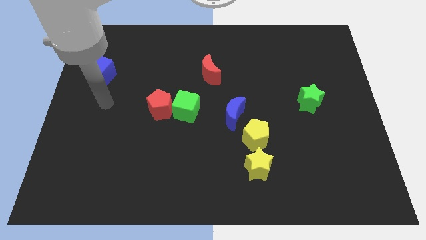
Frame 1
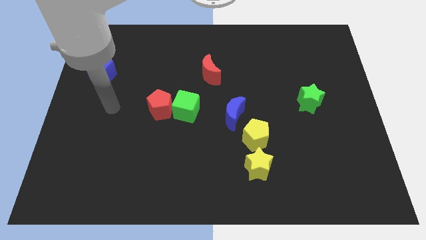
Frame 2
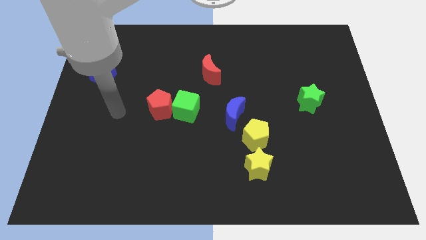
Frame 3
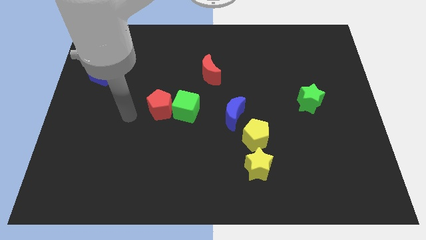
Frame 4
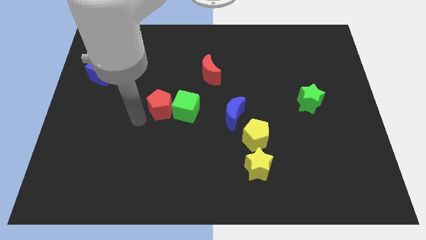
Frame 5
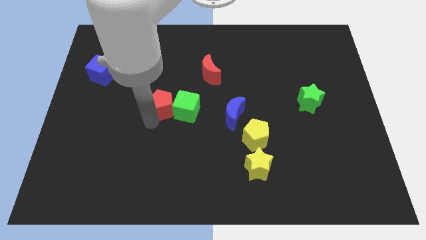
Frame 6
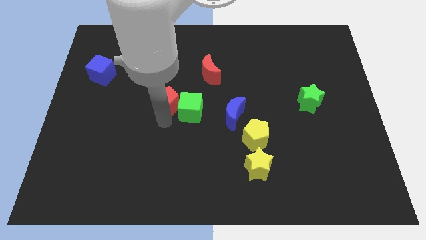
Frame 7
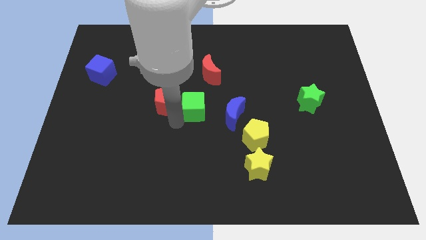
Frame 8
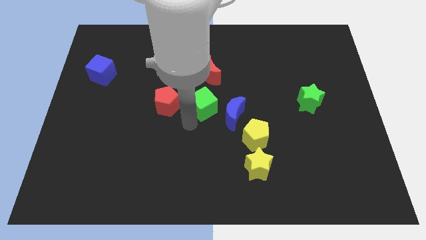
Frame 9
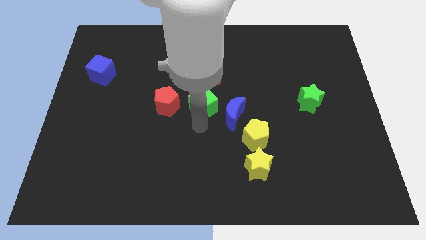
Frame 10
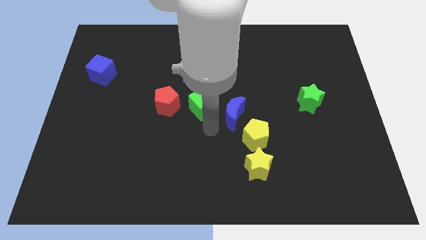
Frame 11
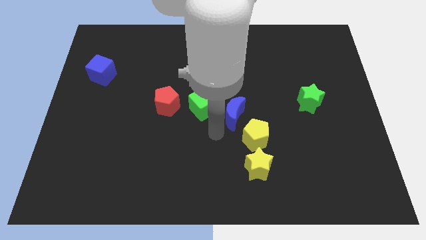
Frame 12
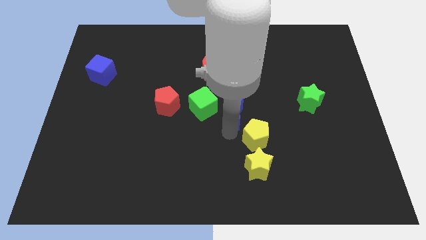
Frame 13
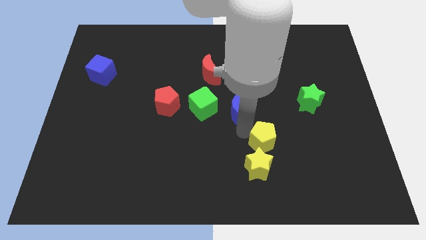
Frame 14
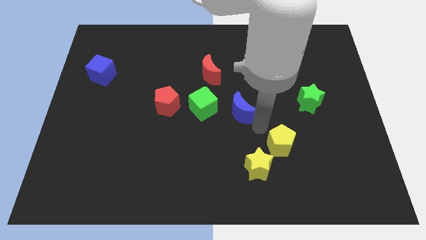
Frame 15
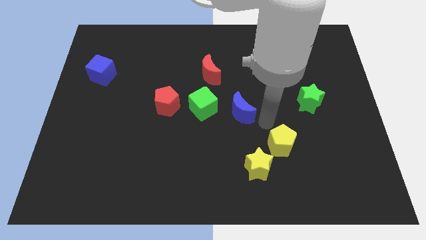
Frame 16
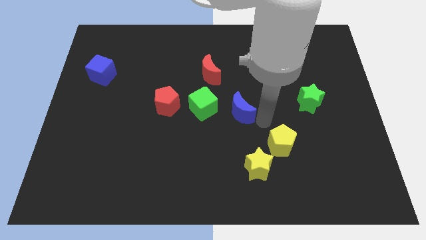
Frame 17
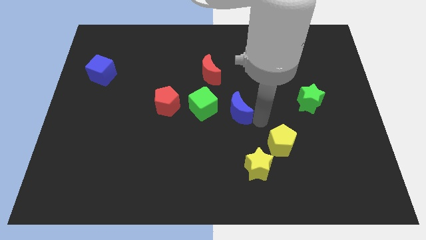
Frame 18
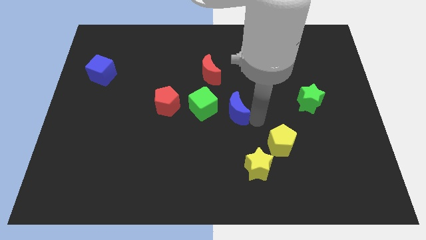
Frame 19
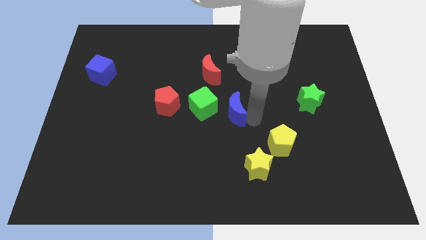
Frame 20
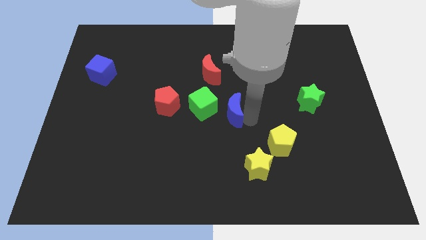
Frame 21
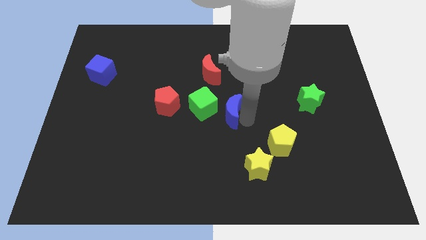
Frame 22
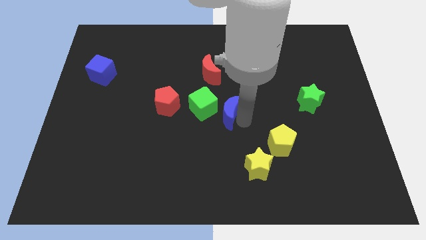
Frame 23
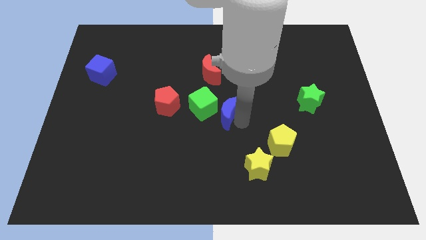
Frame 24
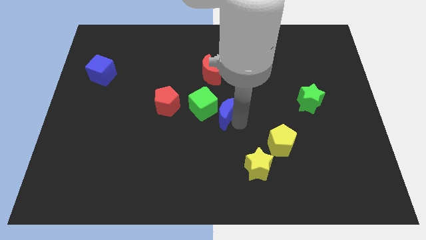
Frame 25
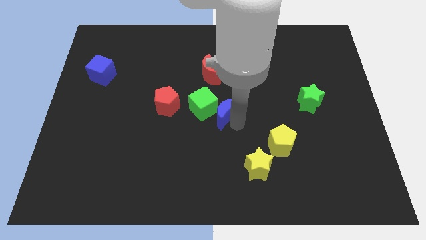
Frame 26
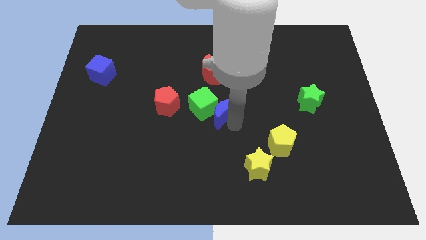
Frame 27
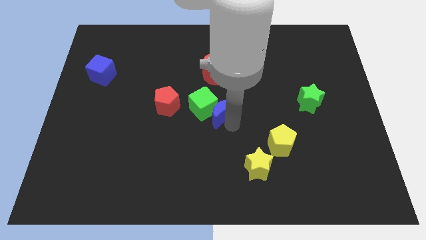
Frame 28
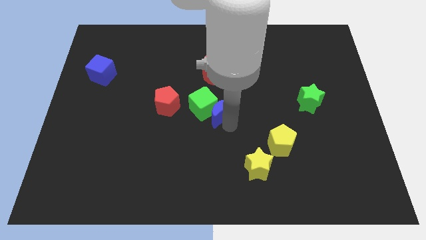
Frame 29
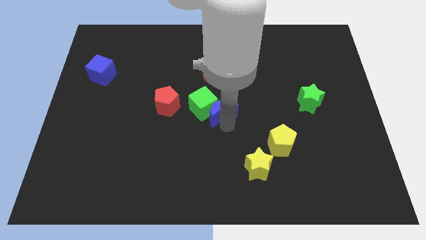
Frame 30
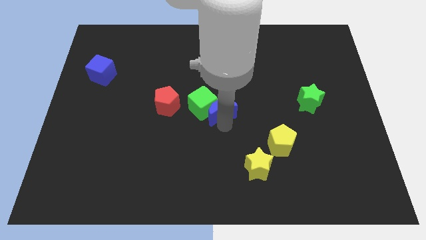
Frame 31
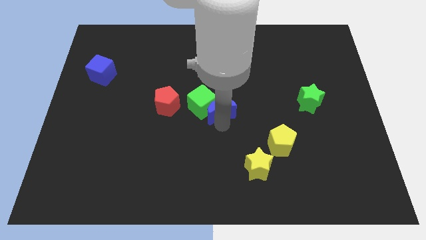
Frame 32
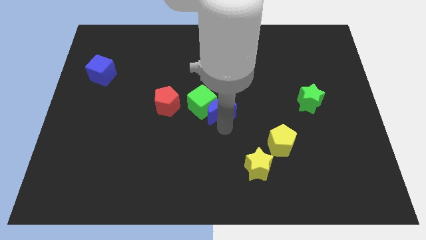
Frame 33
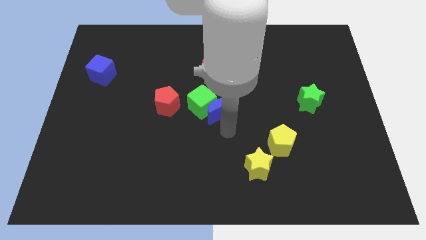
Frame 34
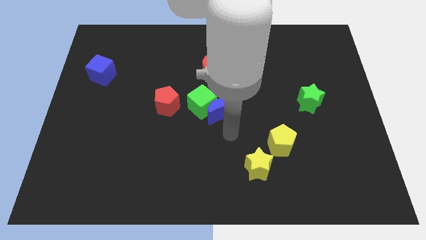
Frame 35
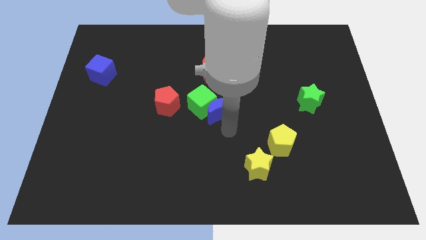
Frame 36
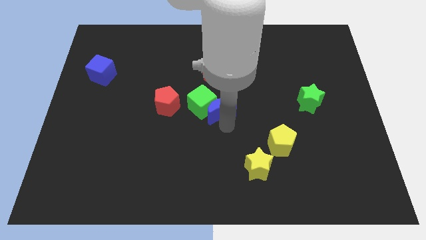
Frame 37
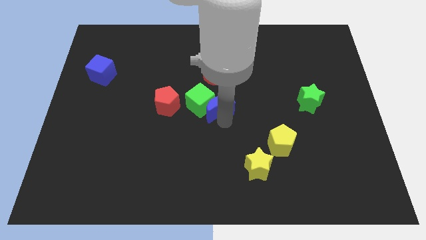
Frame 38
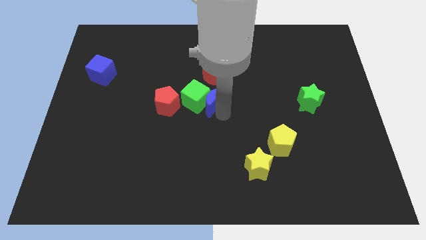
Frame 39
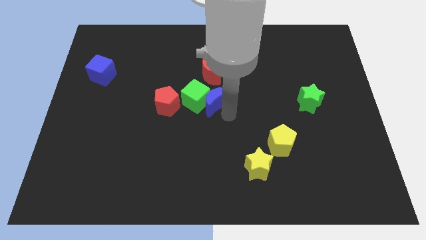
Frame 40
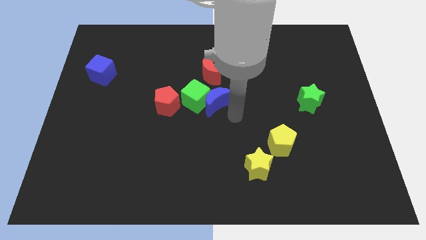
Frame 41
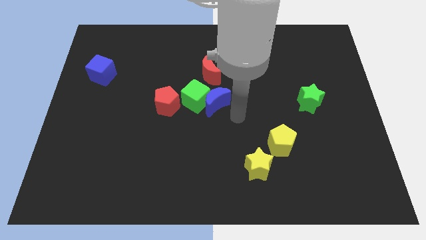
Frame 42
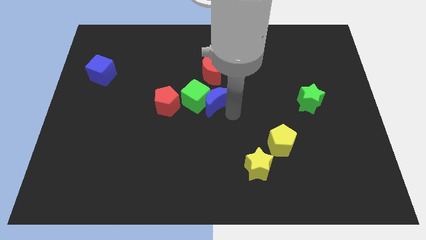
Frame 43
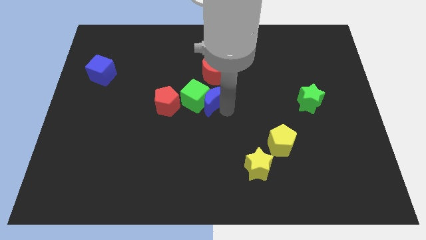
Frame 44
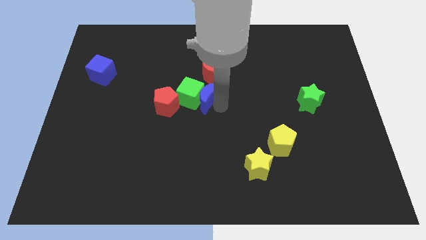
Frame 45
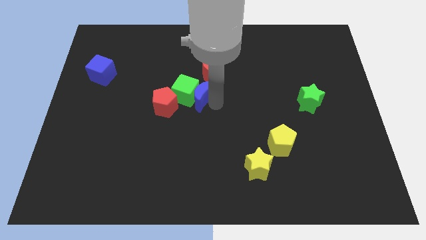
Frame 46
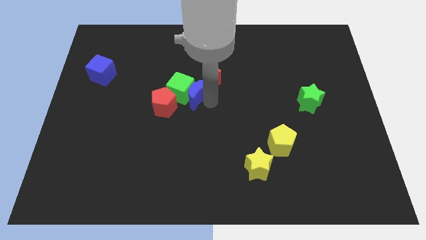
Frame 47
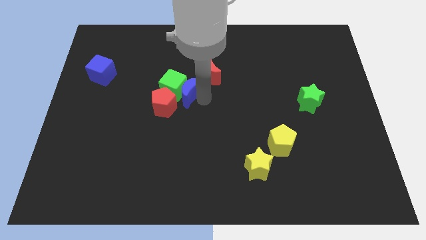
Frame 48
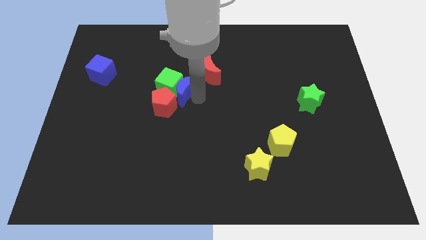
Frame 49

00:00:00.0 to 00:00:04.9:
put the blue moon to the top of the red pentagon

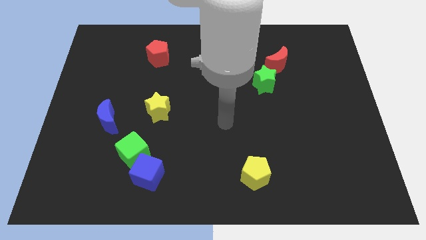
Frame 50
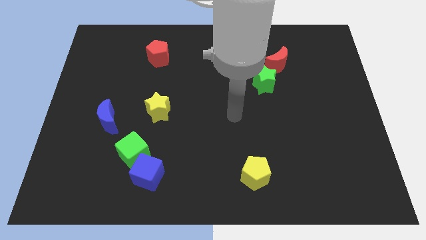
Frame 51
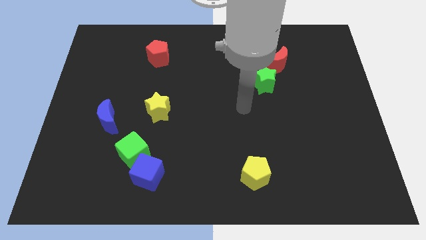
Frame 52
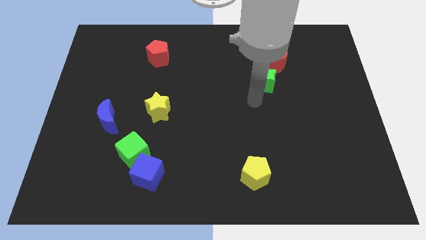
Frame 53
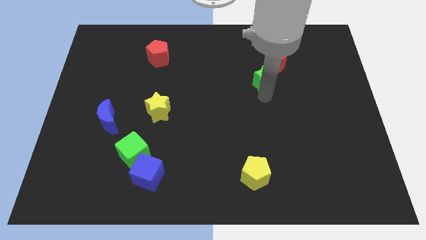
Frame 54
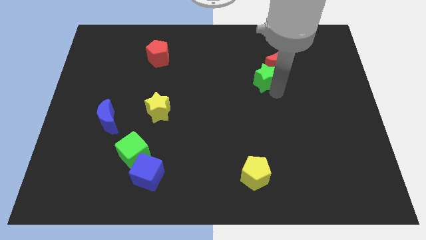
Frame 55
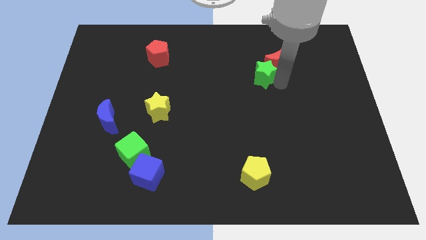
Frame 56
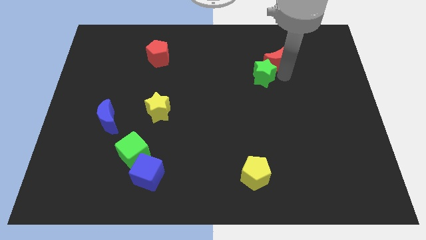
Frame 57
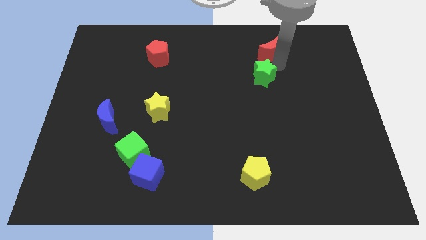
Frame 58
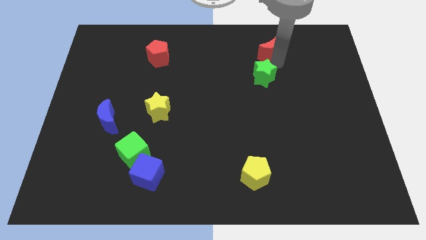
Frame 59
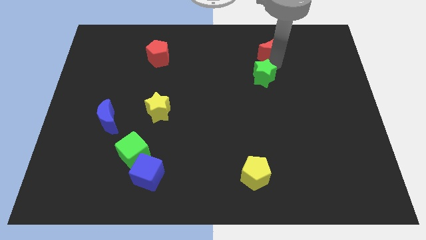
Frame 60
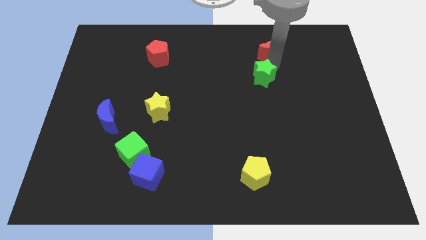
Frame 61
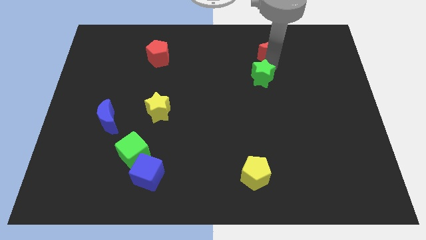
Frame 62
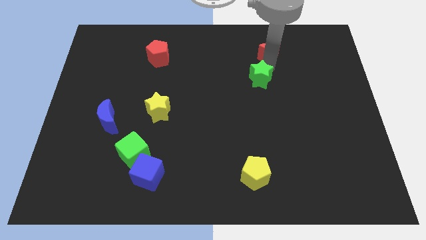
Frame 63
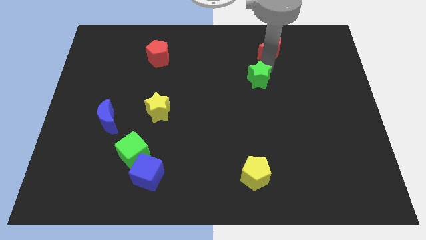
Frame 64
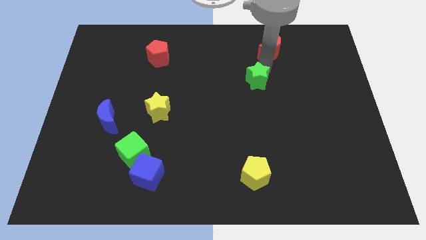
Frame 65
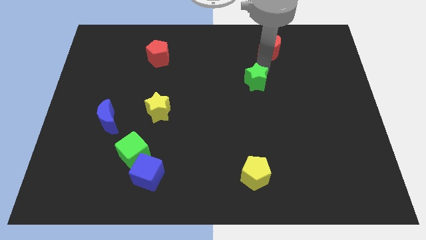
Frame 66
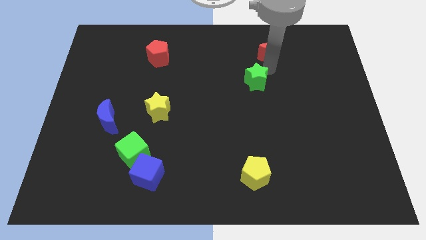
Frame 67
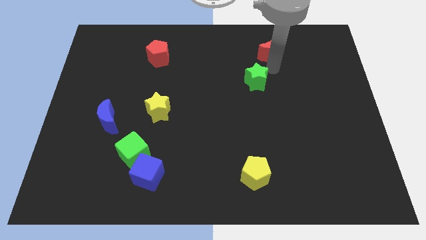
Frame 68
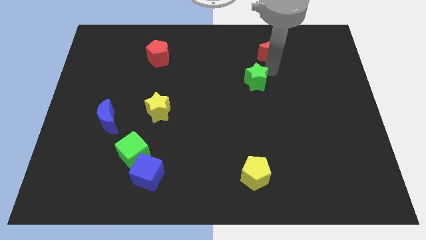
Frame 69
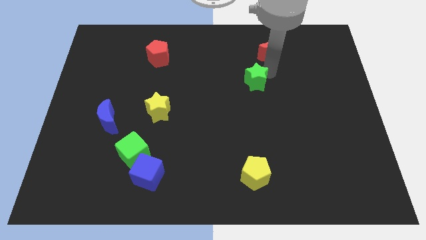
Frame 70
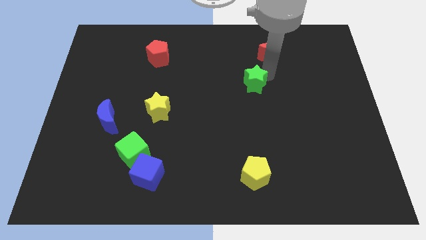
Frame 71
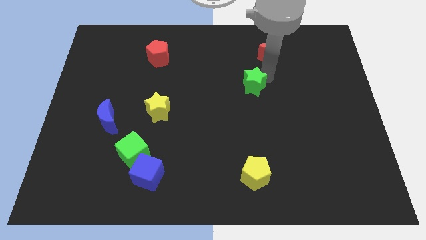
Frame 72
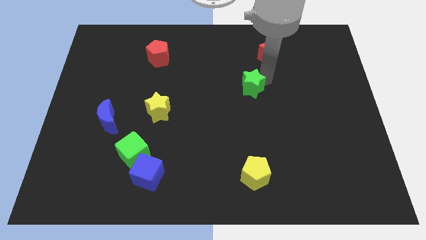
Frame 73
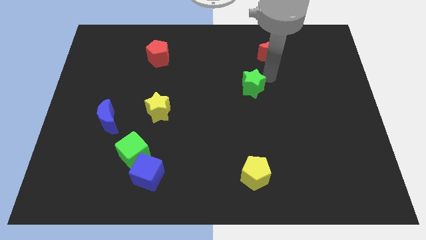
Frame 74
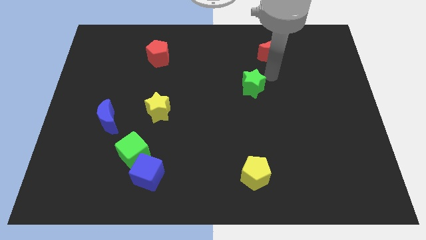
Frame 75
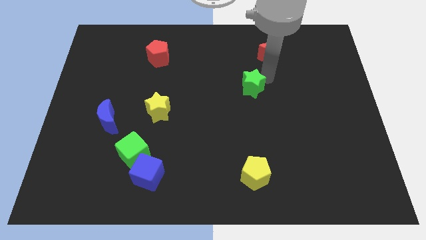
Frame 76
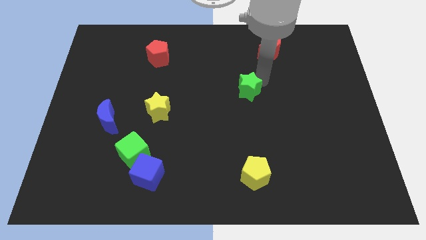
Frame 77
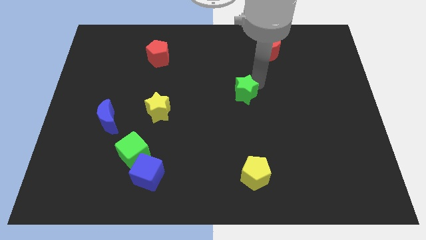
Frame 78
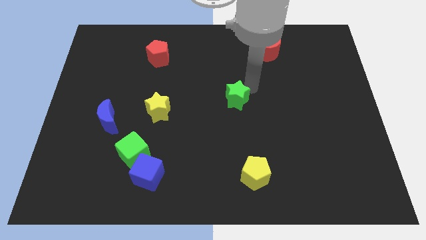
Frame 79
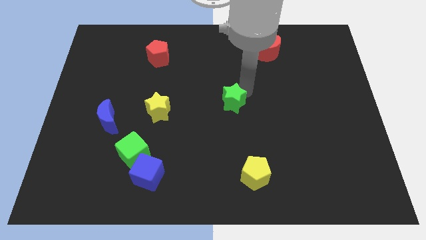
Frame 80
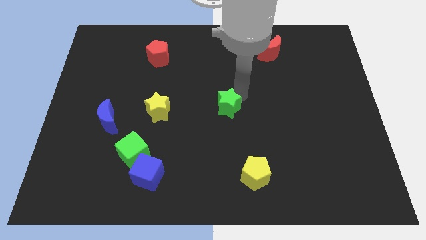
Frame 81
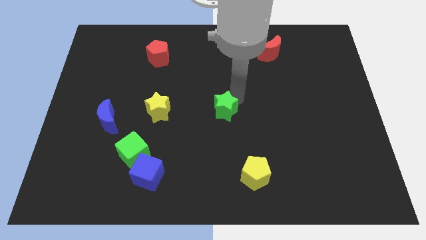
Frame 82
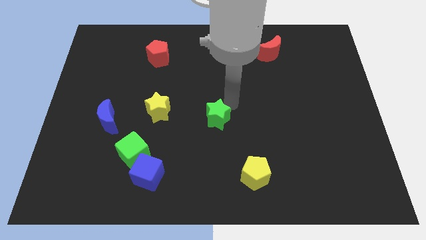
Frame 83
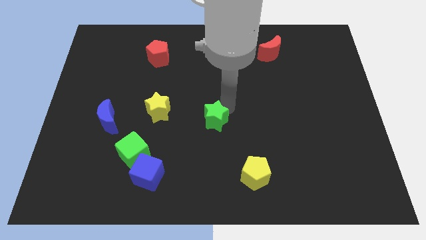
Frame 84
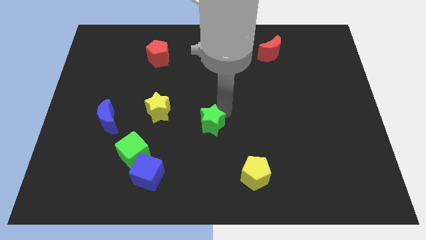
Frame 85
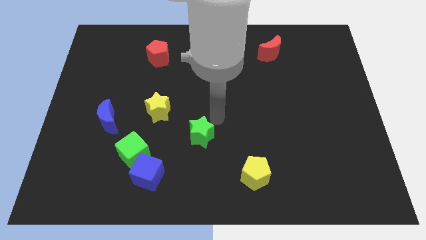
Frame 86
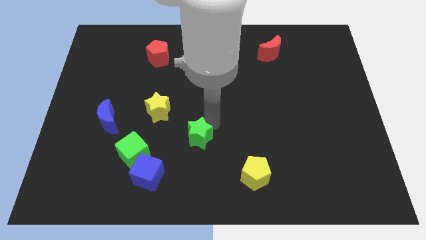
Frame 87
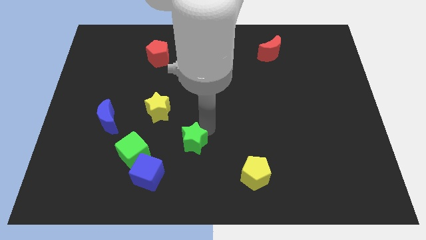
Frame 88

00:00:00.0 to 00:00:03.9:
move the green star to the top right of the blue cube
